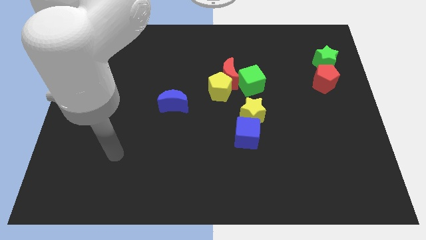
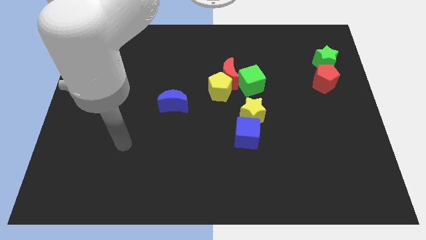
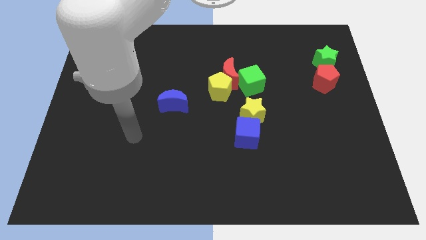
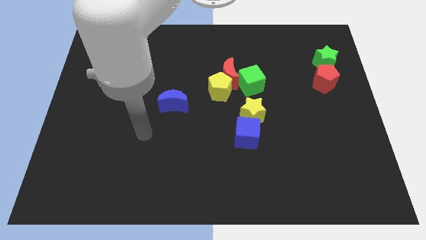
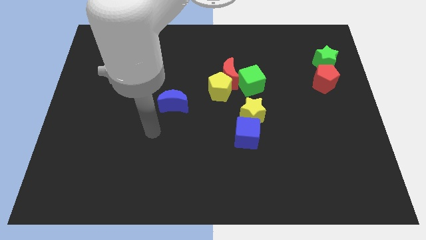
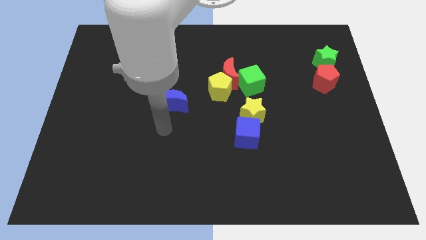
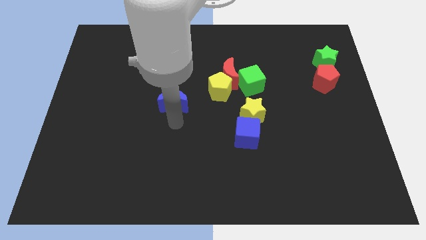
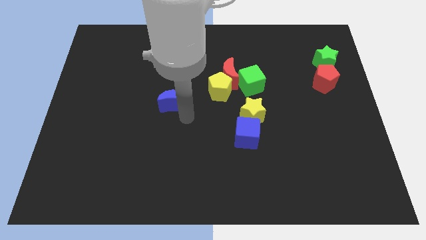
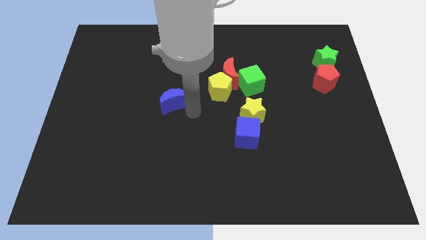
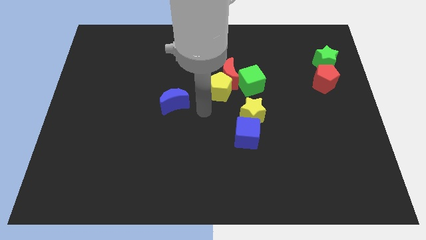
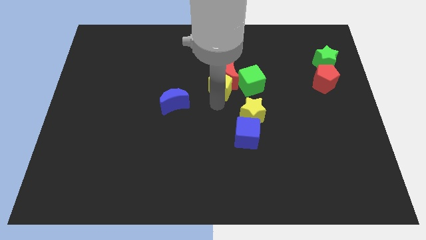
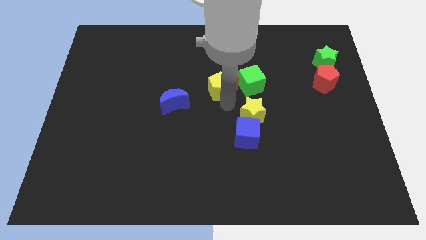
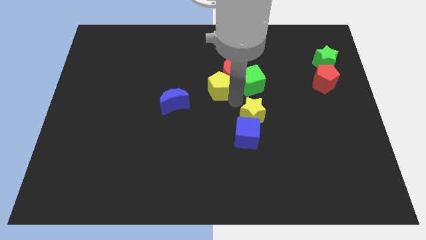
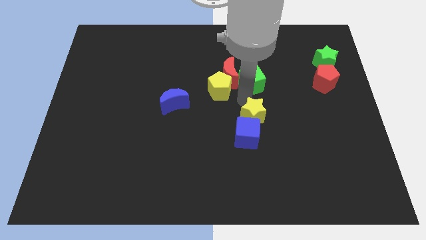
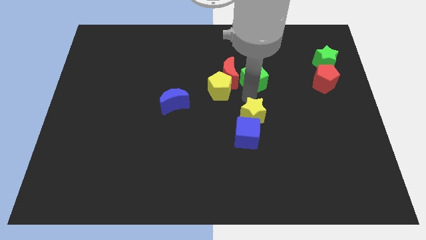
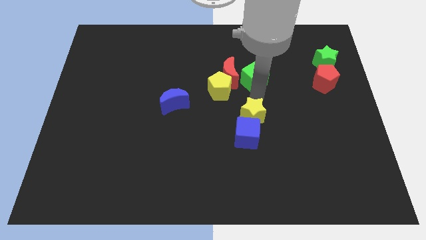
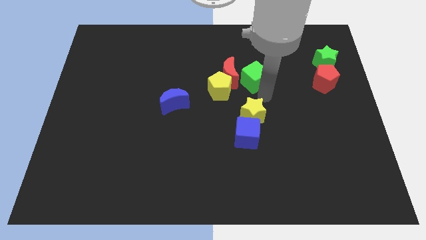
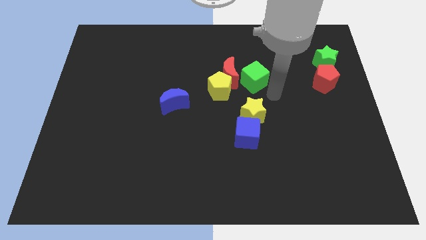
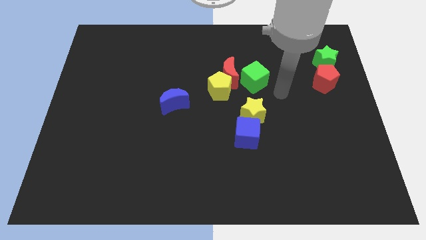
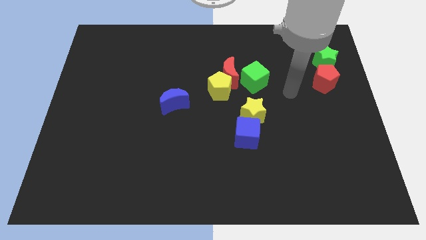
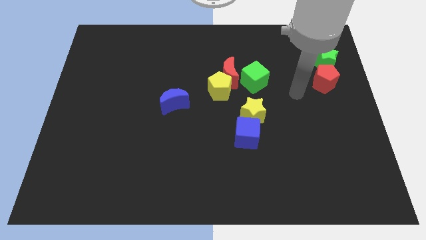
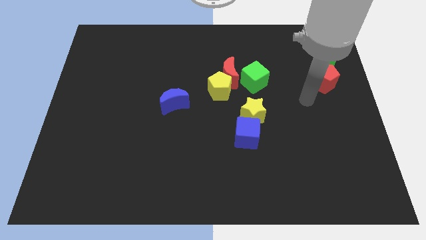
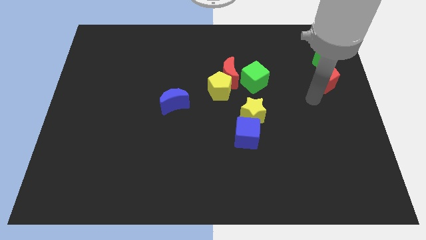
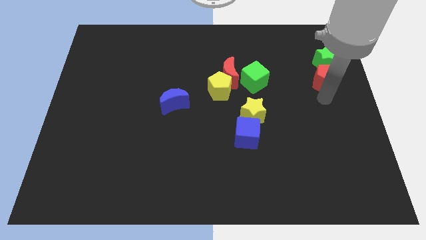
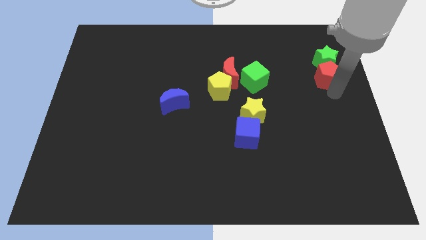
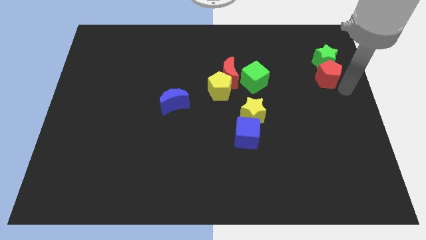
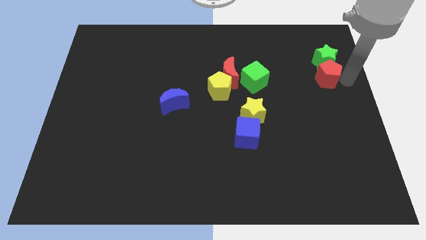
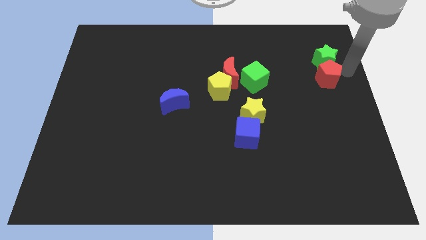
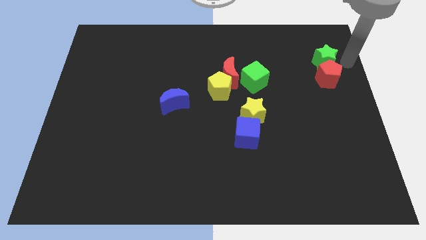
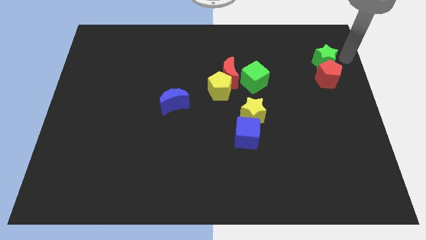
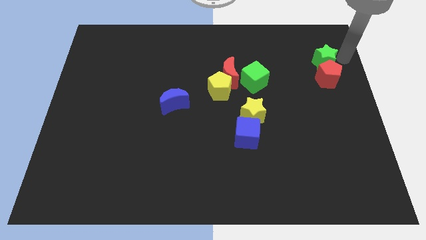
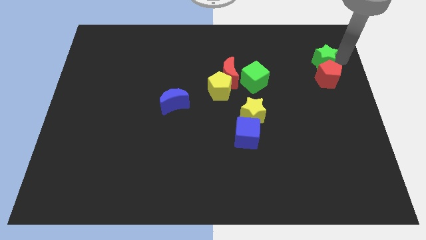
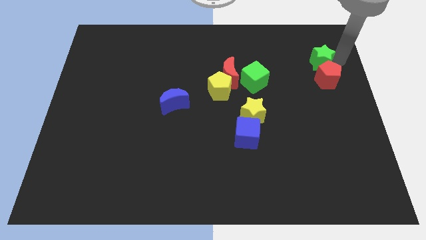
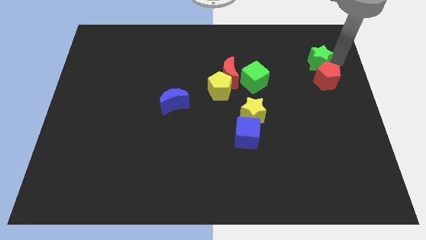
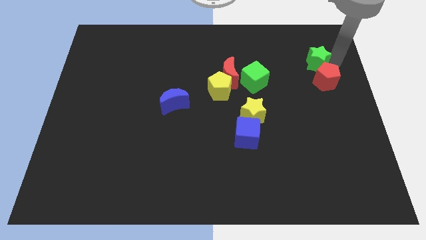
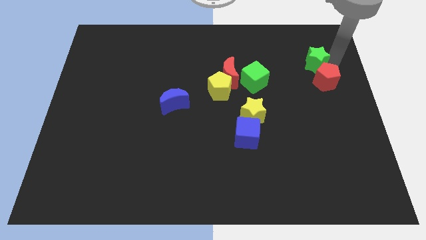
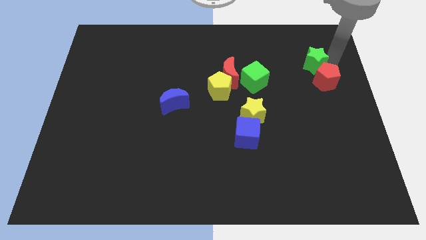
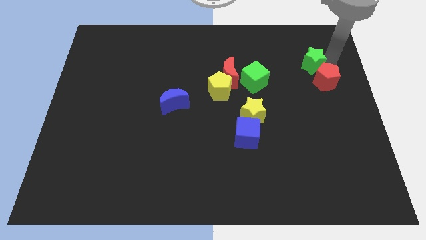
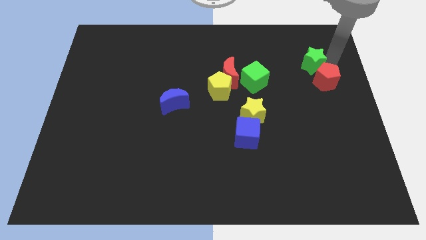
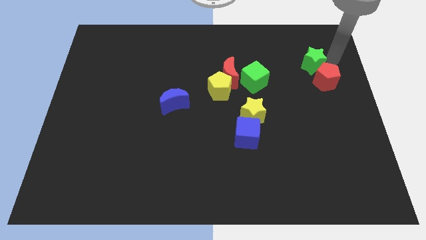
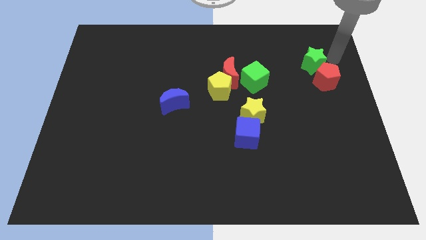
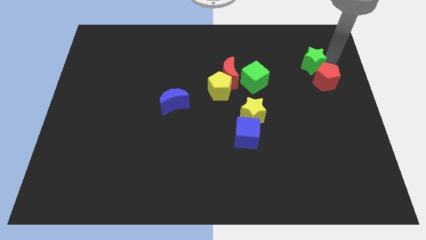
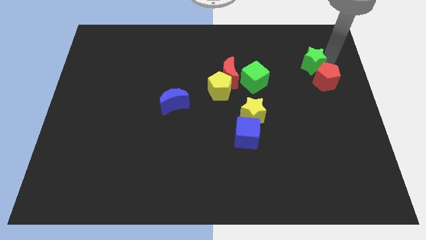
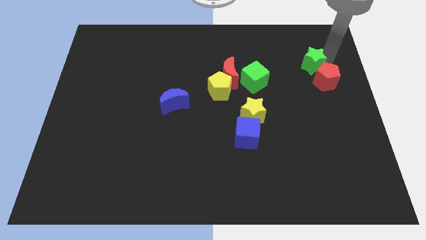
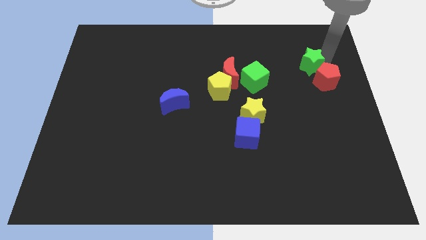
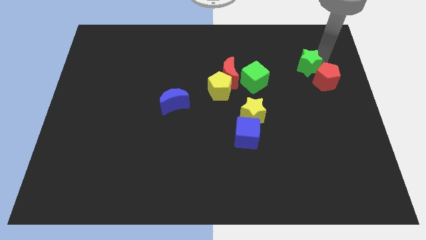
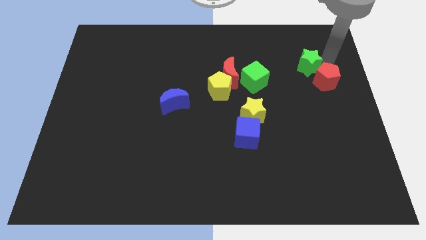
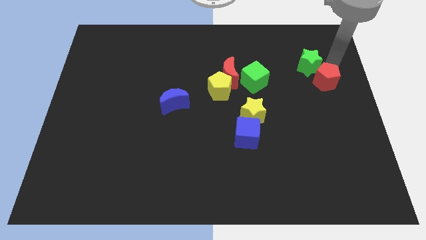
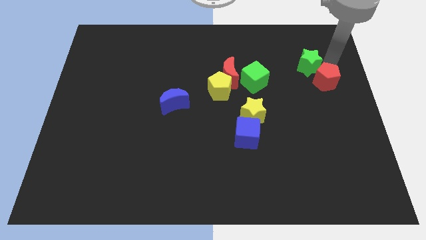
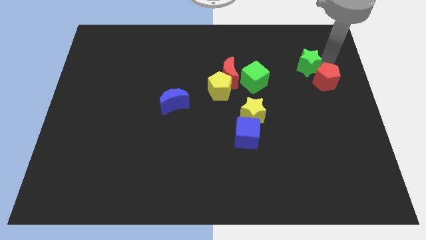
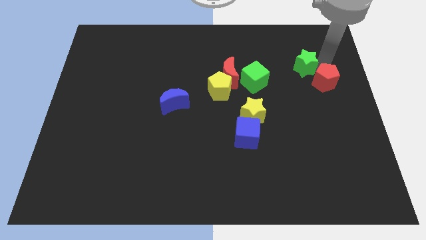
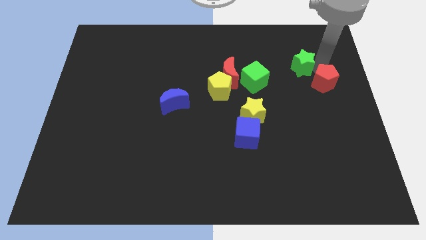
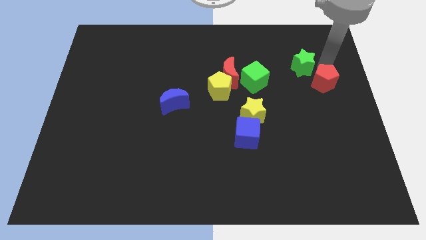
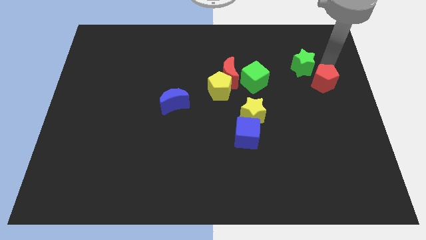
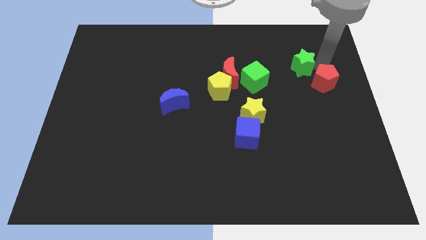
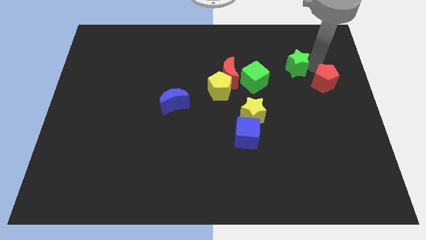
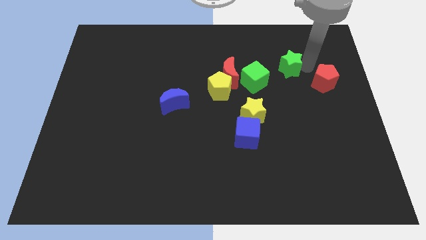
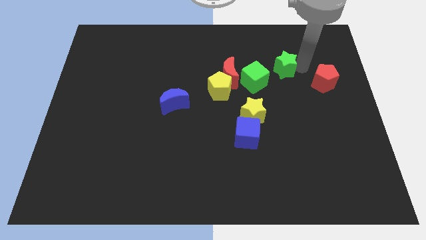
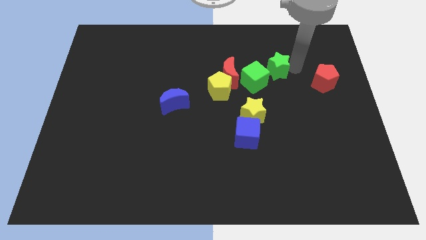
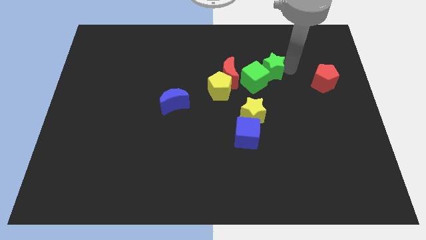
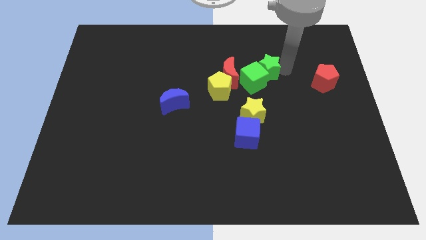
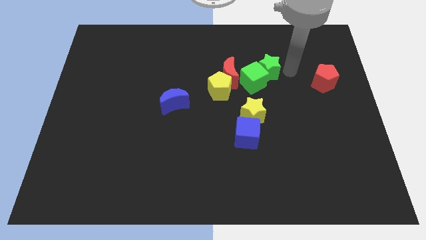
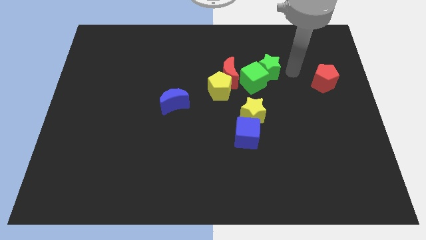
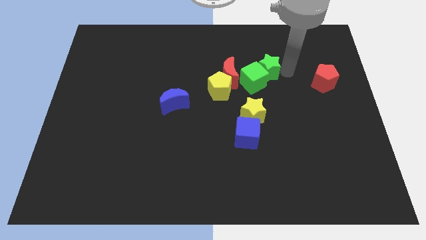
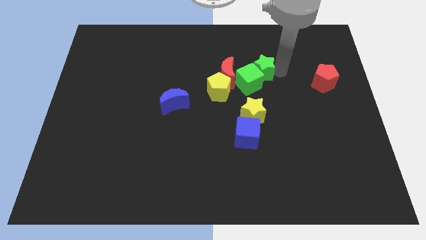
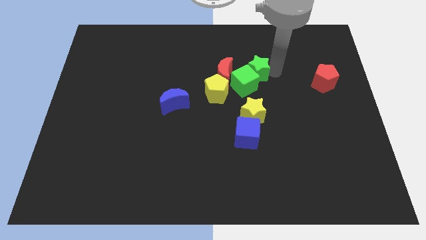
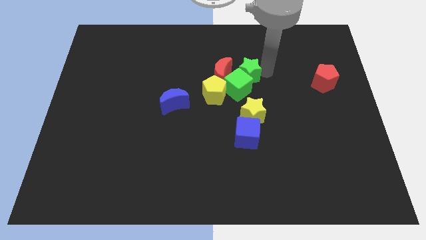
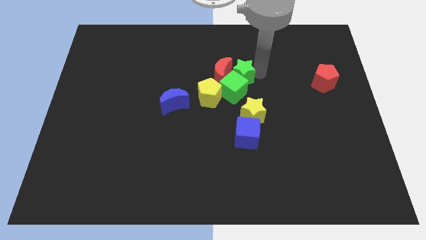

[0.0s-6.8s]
slide the green star next to the red moon

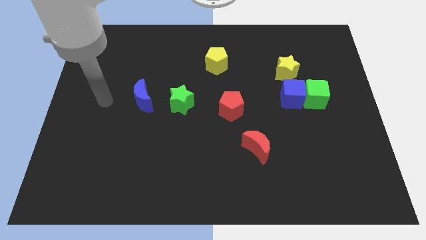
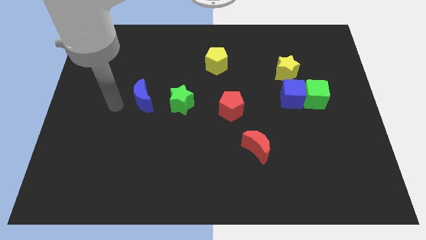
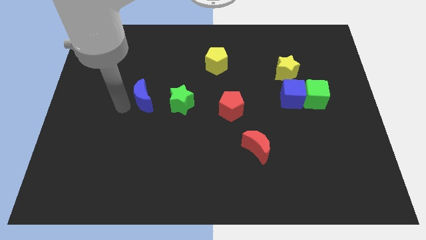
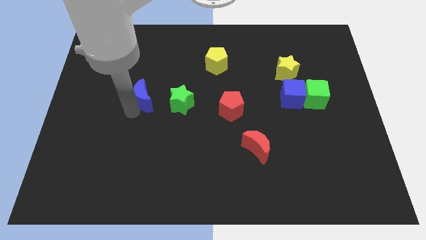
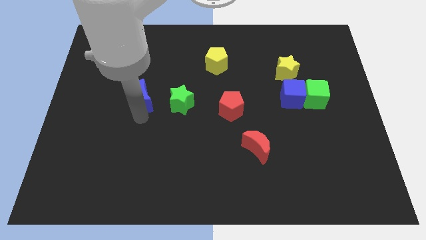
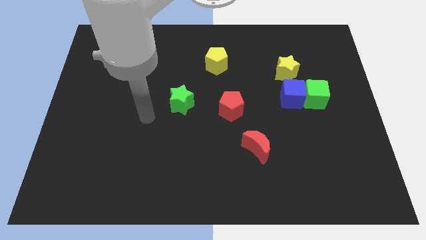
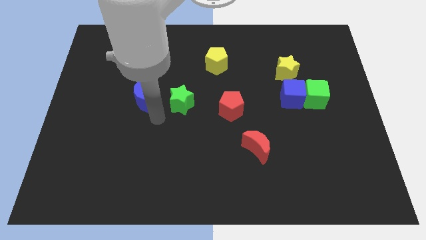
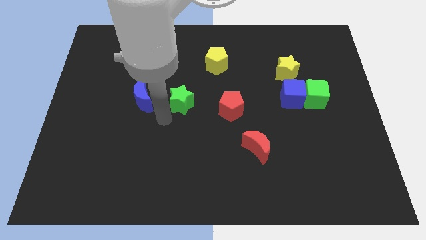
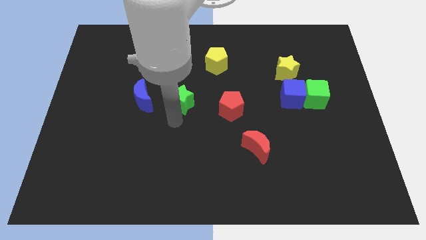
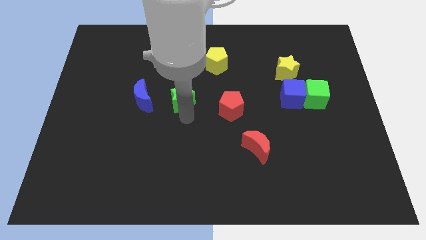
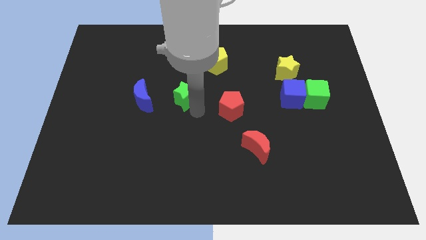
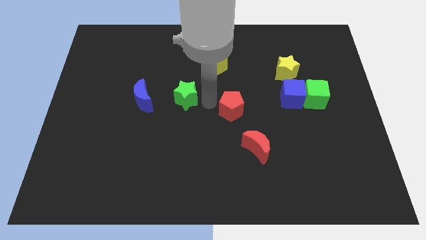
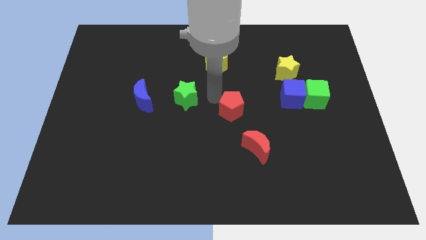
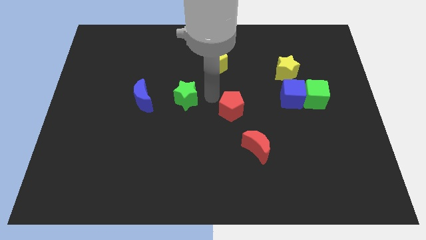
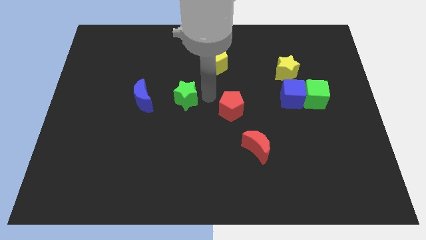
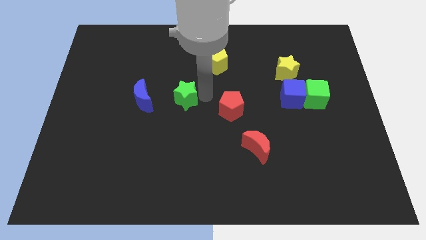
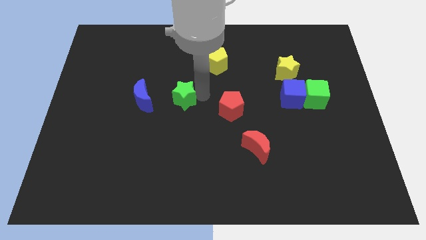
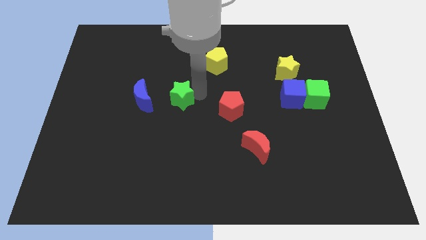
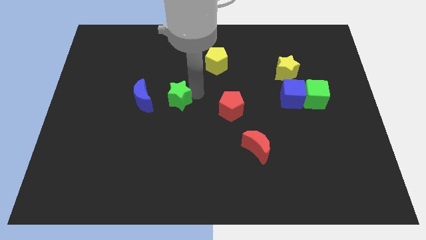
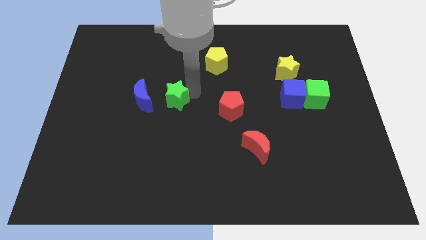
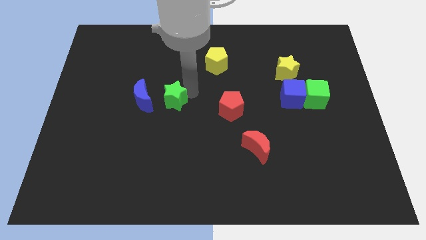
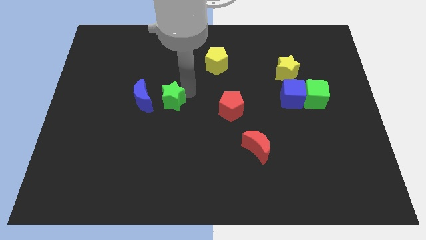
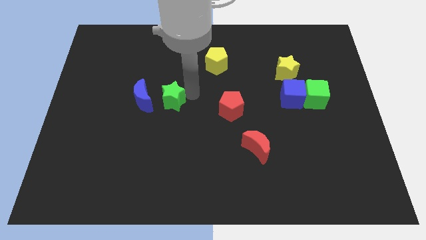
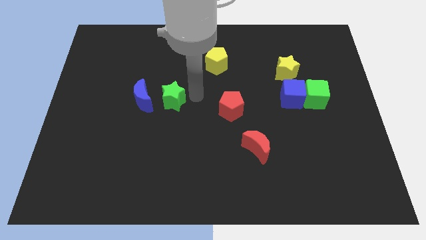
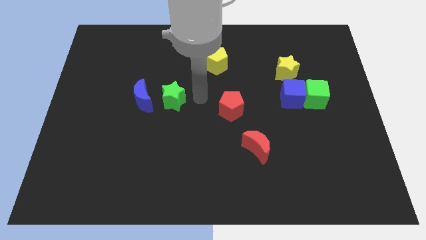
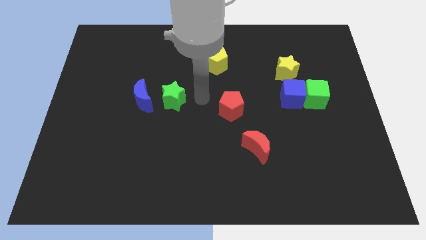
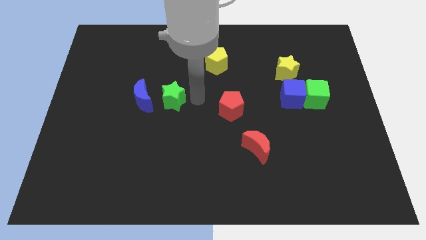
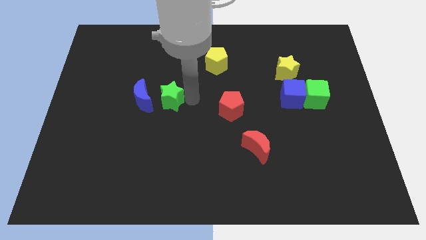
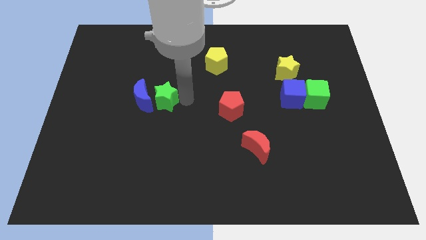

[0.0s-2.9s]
slide the green star to the blue moon
